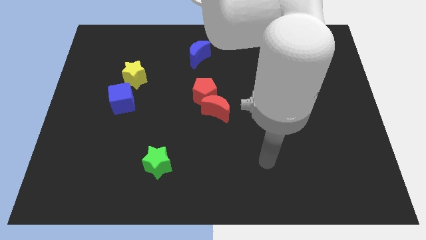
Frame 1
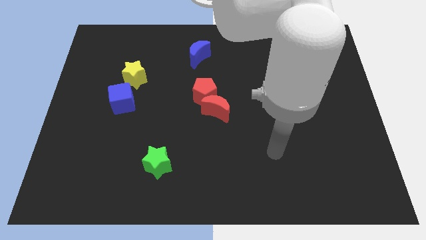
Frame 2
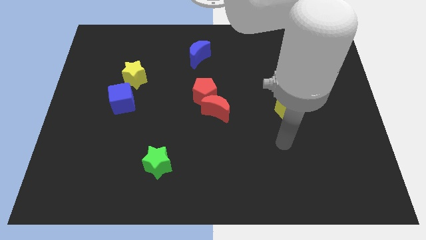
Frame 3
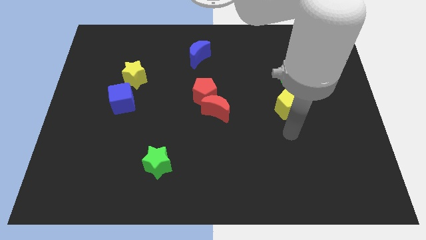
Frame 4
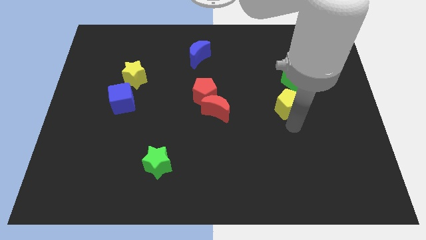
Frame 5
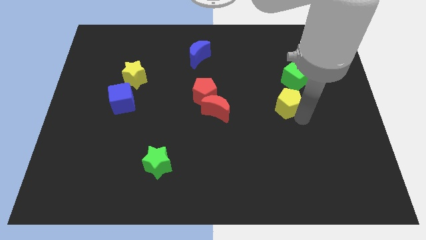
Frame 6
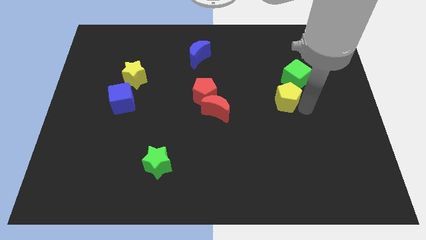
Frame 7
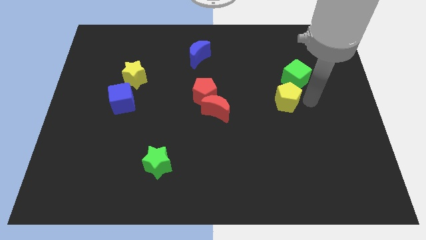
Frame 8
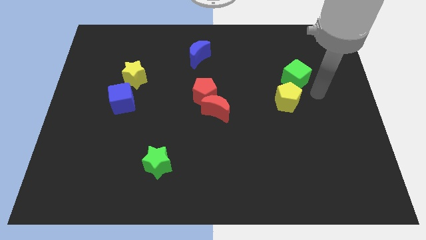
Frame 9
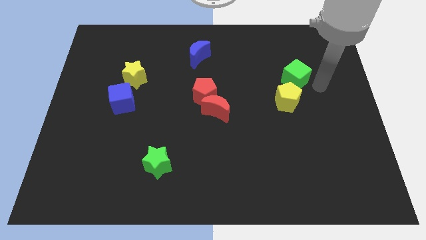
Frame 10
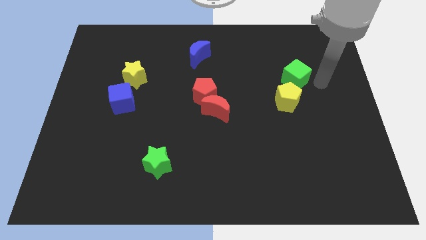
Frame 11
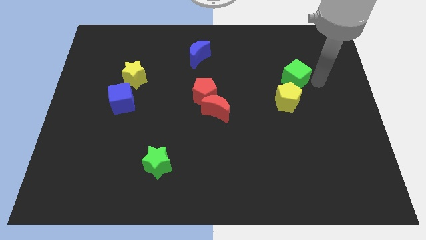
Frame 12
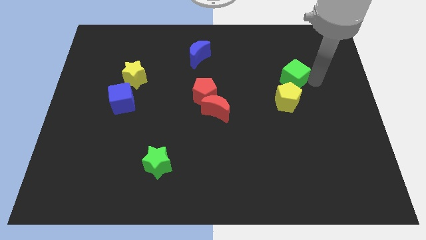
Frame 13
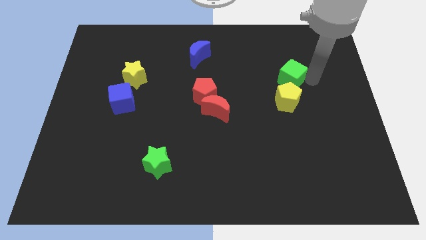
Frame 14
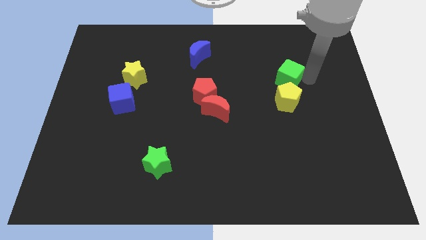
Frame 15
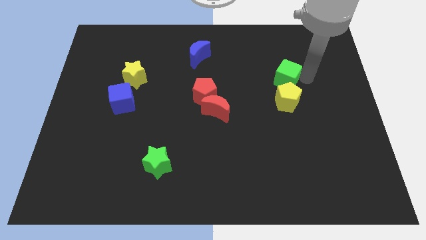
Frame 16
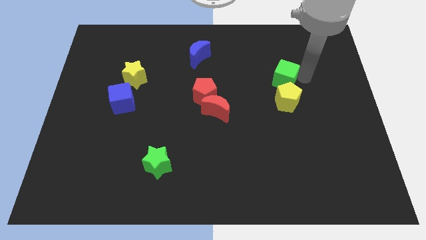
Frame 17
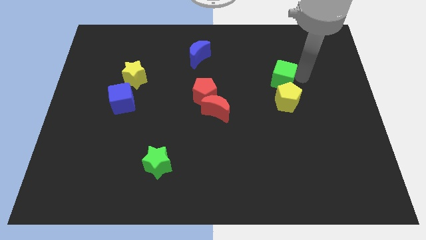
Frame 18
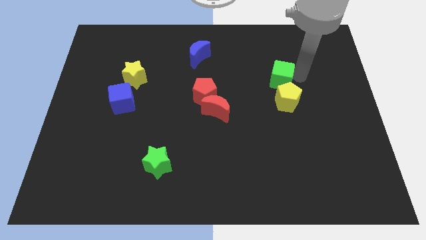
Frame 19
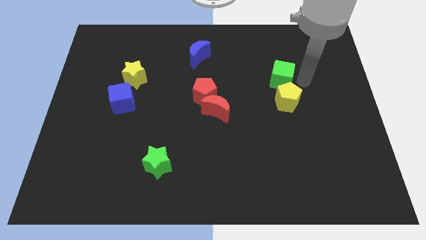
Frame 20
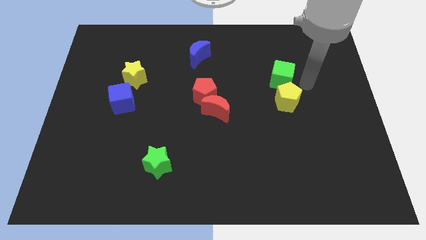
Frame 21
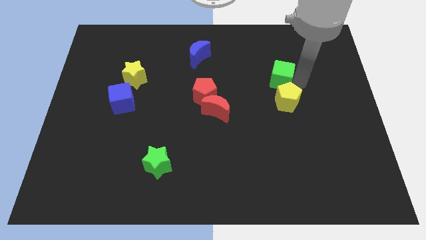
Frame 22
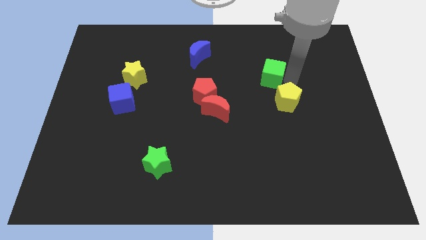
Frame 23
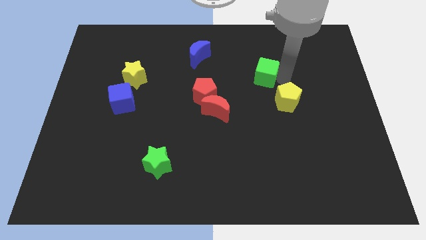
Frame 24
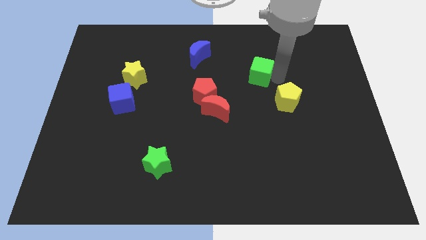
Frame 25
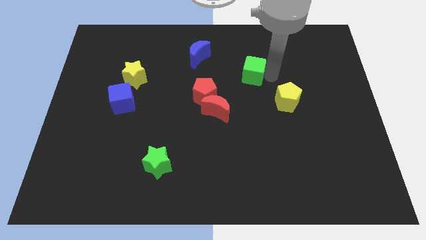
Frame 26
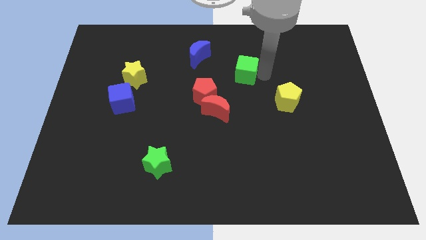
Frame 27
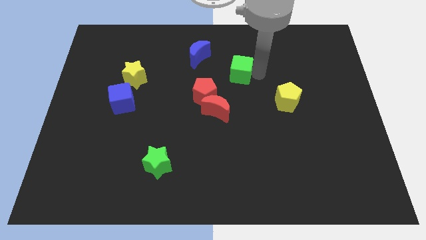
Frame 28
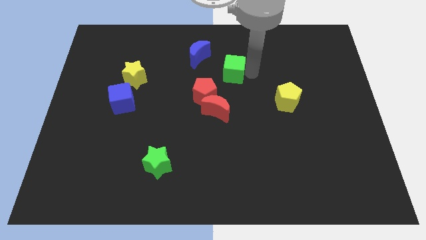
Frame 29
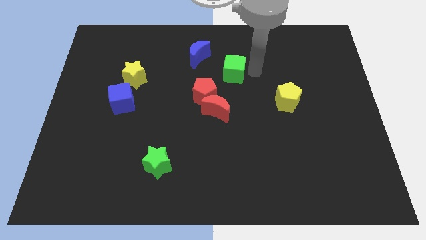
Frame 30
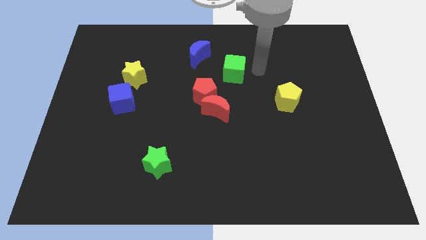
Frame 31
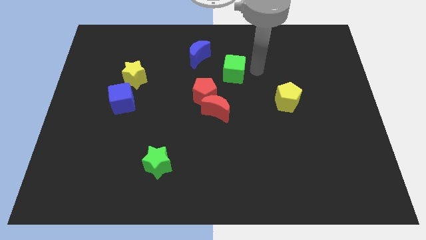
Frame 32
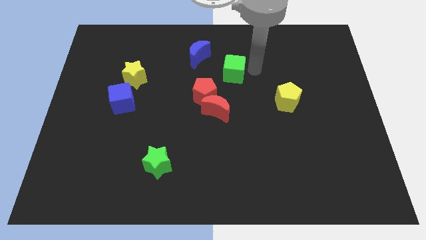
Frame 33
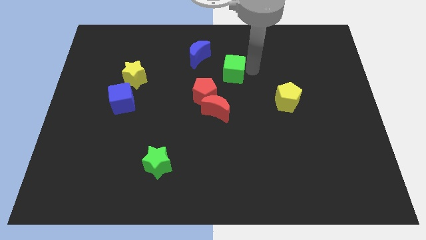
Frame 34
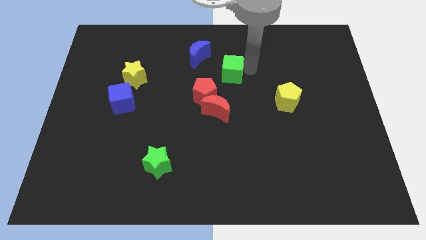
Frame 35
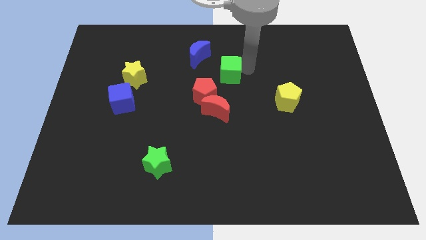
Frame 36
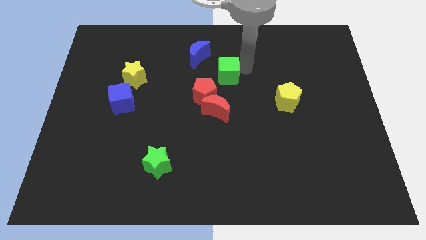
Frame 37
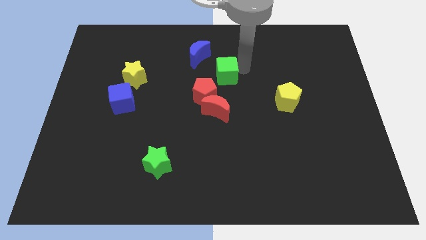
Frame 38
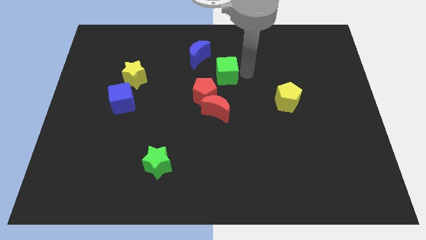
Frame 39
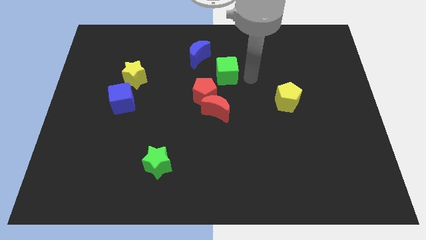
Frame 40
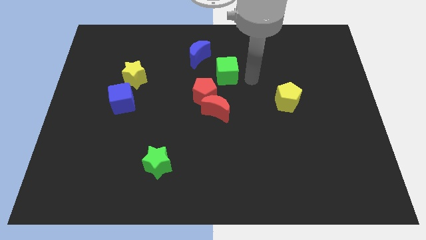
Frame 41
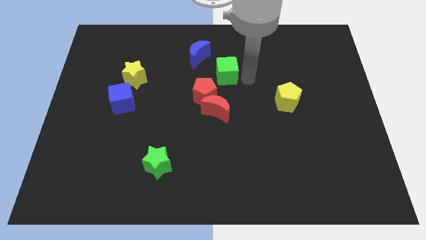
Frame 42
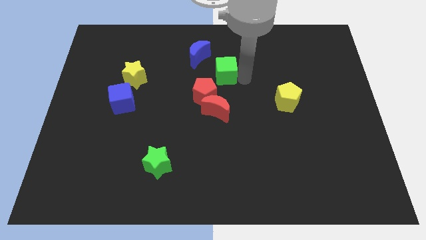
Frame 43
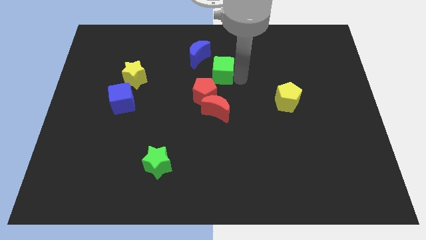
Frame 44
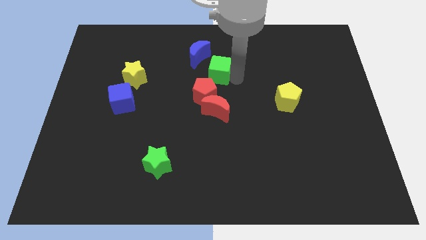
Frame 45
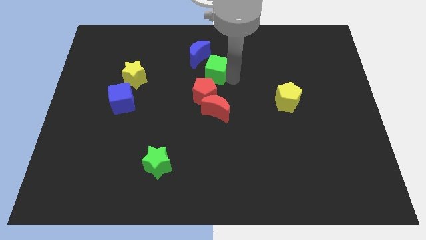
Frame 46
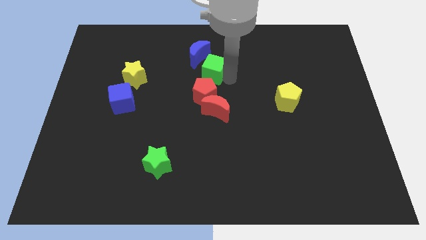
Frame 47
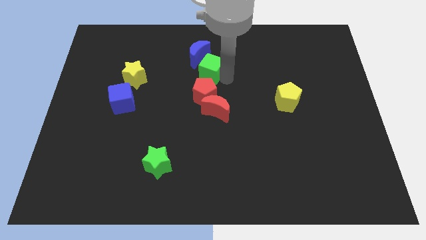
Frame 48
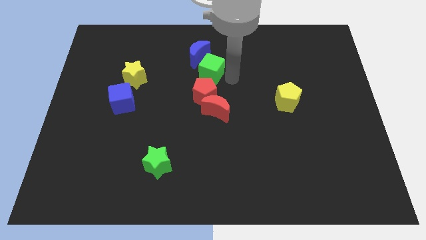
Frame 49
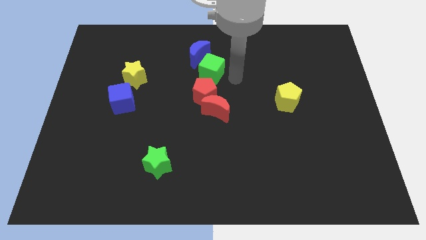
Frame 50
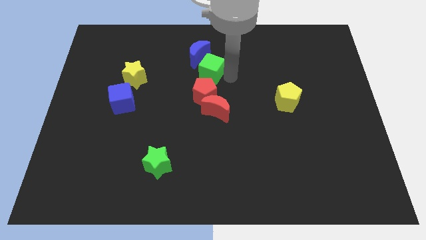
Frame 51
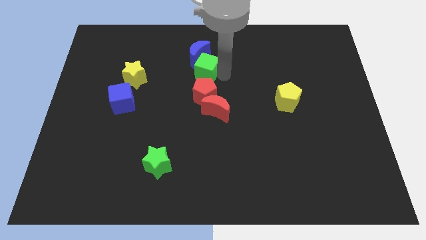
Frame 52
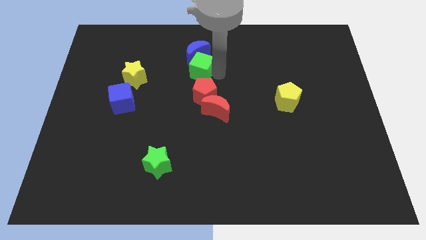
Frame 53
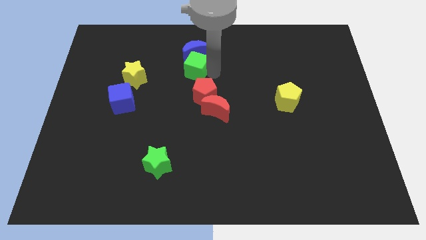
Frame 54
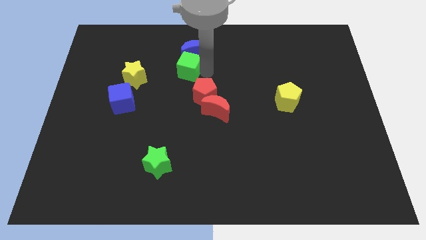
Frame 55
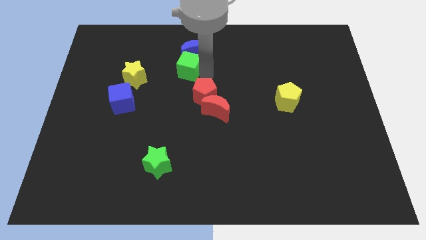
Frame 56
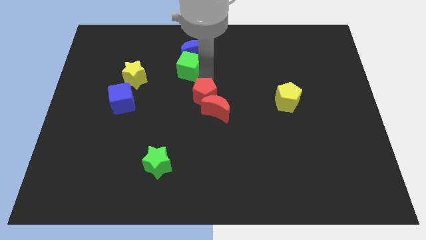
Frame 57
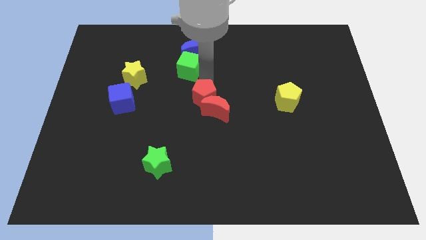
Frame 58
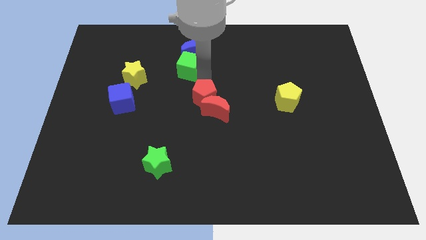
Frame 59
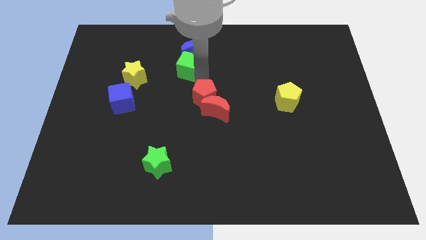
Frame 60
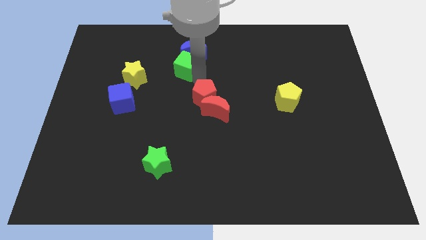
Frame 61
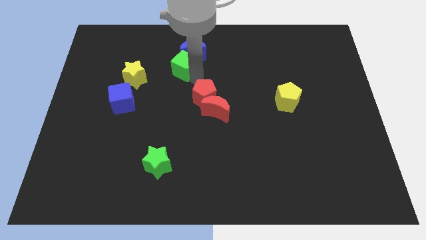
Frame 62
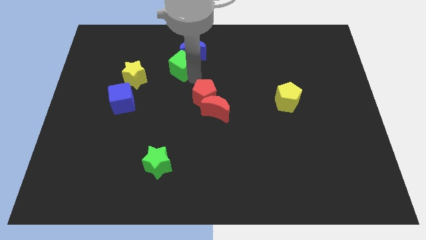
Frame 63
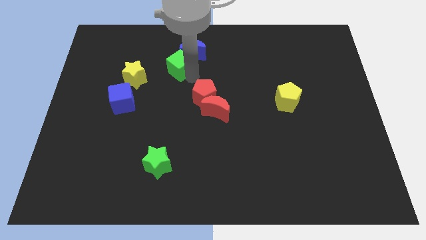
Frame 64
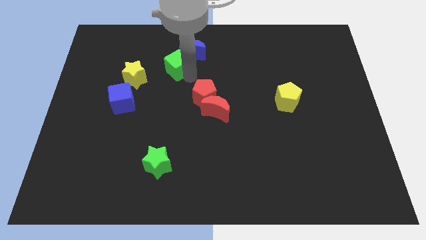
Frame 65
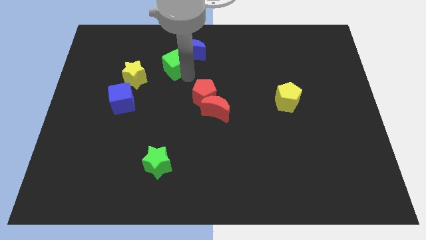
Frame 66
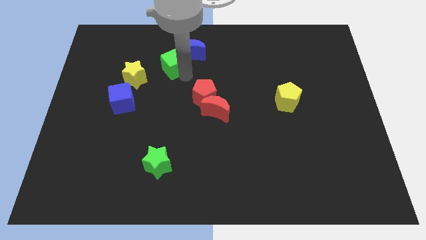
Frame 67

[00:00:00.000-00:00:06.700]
put the green cube to the left side of the blue moon

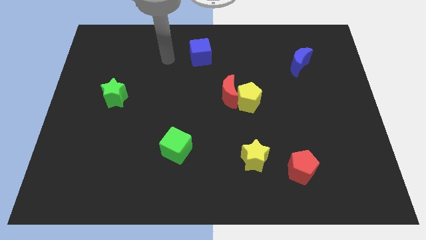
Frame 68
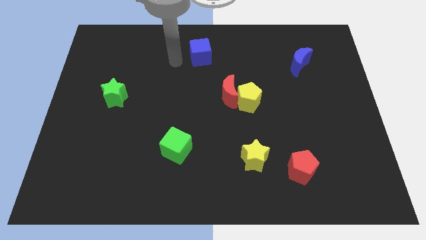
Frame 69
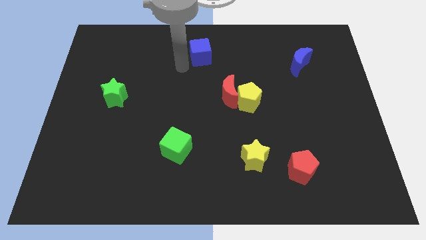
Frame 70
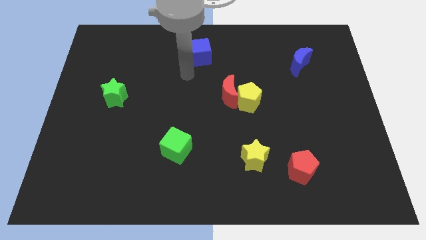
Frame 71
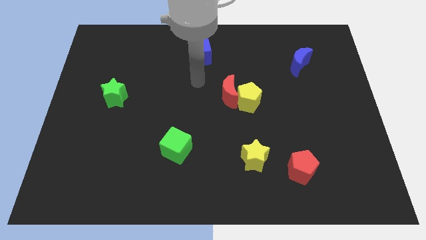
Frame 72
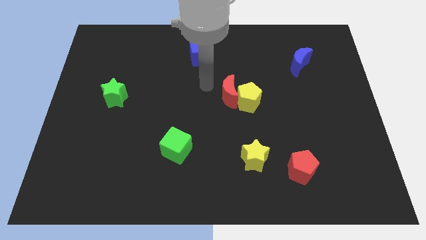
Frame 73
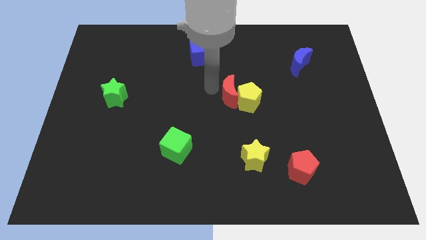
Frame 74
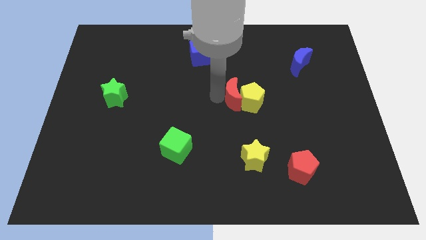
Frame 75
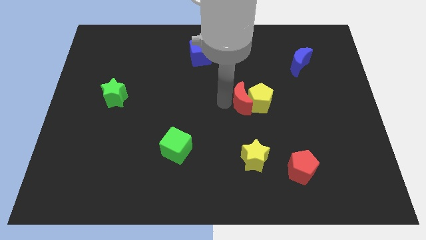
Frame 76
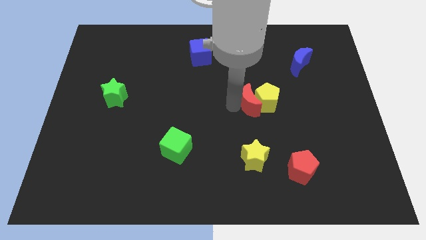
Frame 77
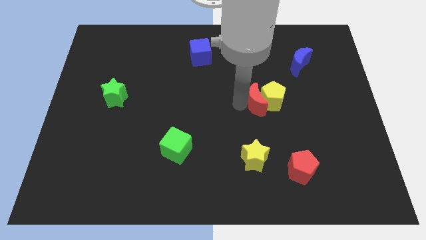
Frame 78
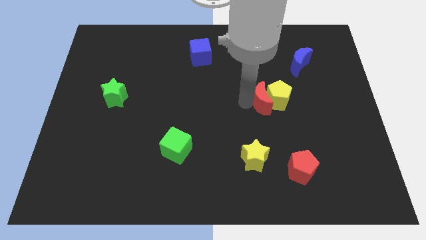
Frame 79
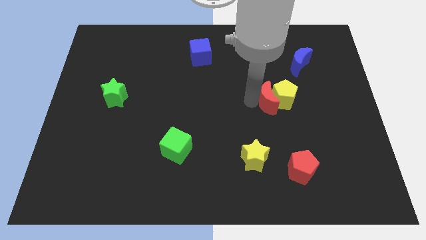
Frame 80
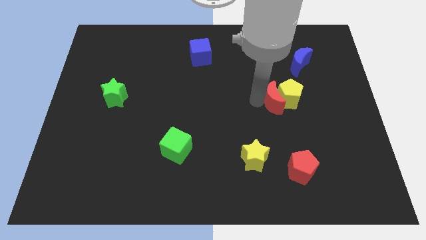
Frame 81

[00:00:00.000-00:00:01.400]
put the yellow pentagon below the blue moon
